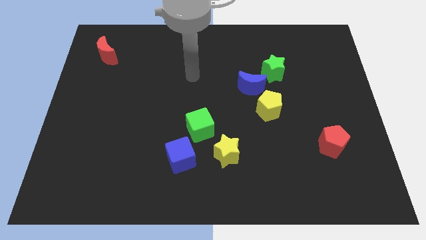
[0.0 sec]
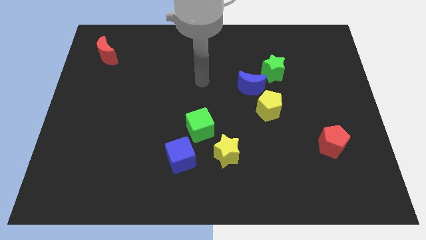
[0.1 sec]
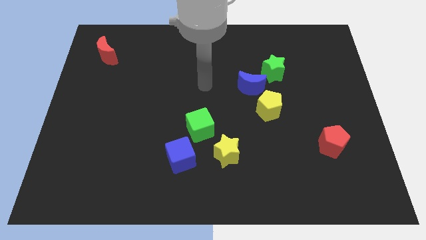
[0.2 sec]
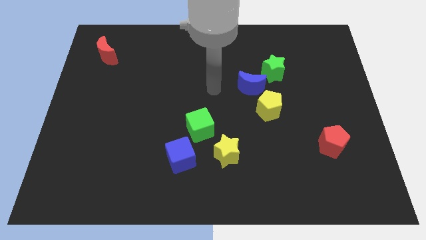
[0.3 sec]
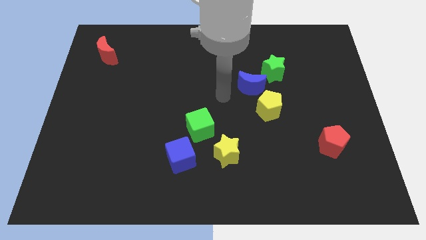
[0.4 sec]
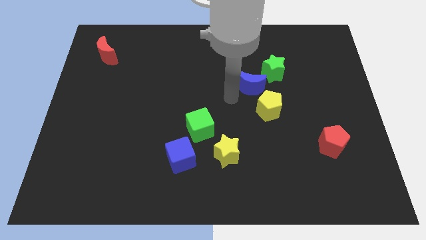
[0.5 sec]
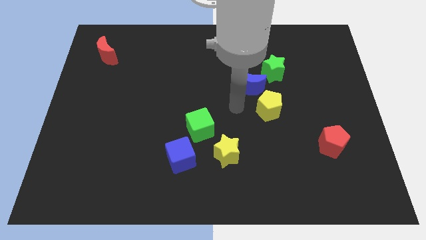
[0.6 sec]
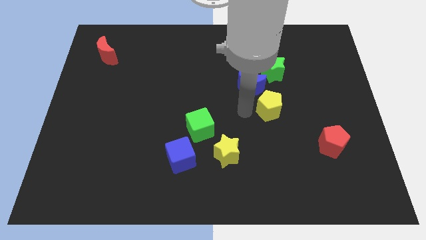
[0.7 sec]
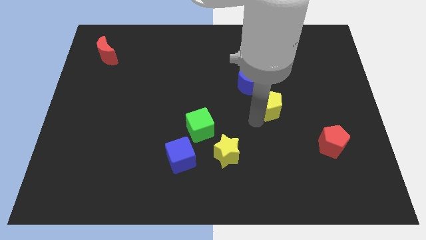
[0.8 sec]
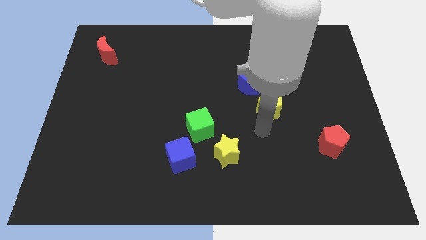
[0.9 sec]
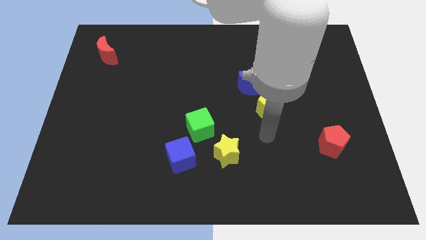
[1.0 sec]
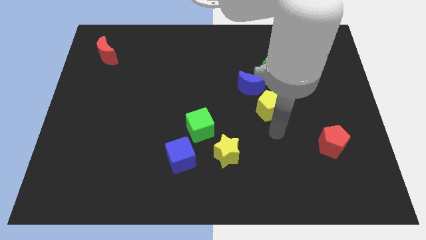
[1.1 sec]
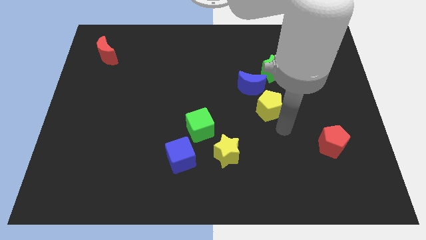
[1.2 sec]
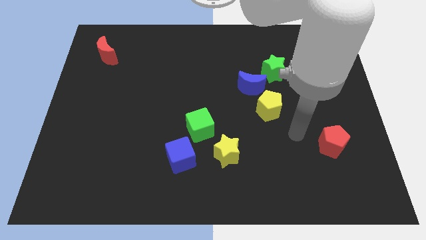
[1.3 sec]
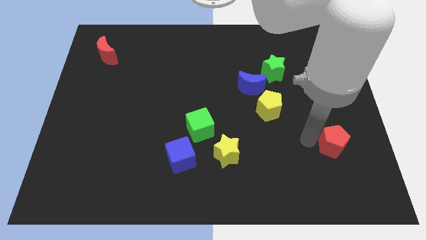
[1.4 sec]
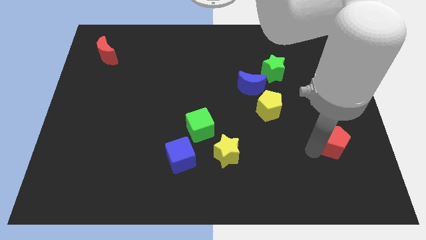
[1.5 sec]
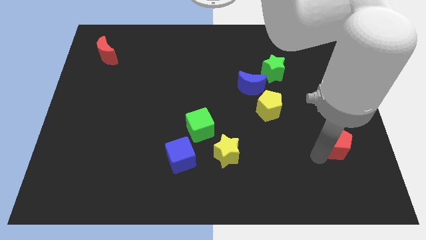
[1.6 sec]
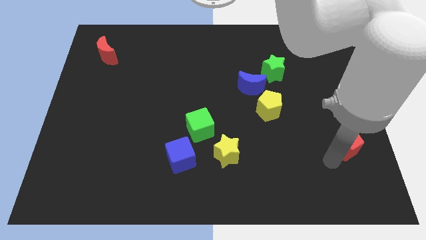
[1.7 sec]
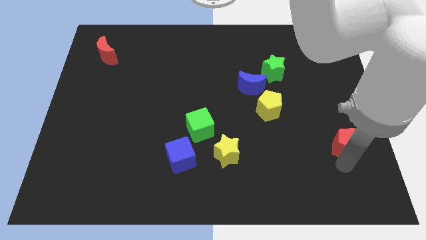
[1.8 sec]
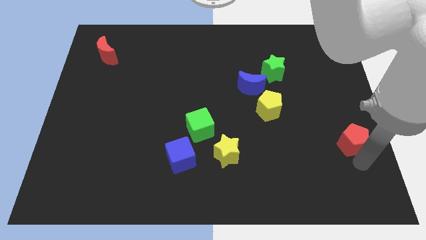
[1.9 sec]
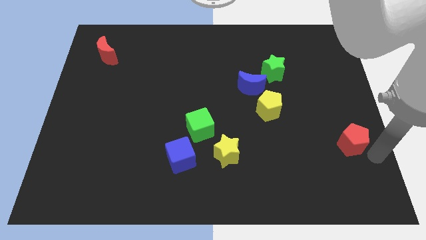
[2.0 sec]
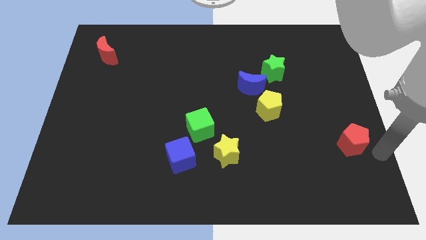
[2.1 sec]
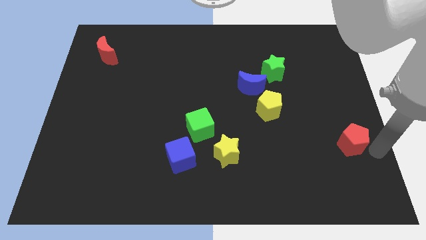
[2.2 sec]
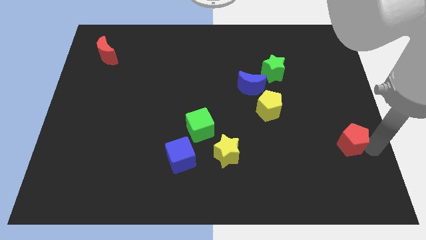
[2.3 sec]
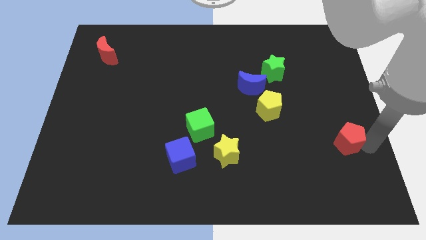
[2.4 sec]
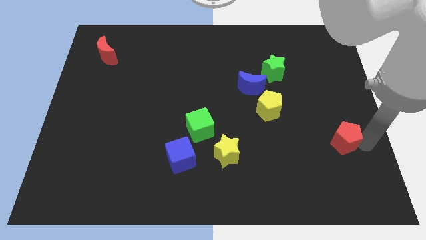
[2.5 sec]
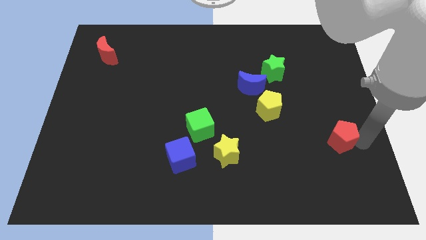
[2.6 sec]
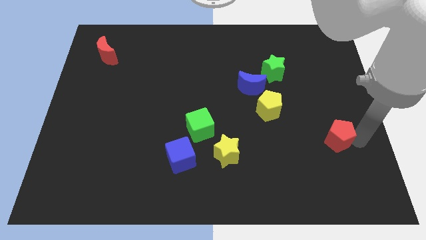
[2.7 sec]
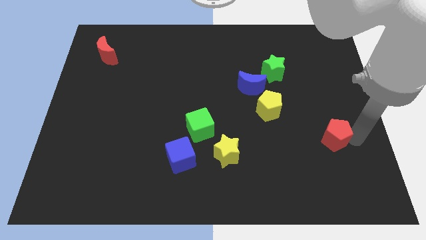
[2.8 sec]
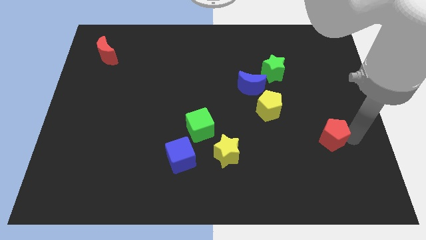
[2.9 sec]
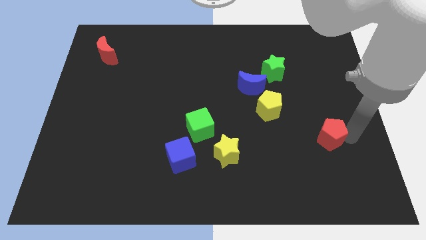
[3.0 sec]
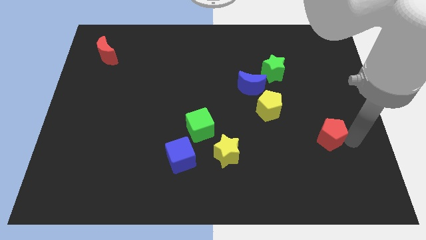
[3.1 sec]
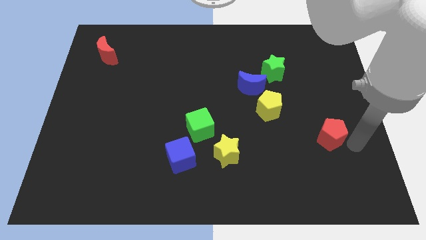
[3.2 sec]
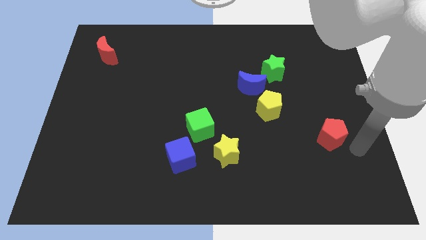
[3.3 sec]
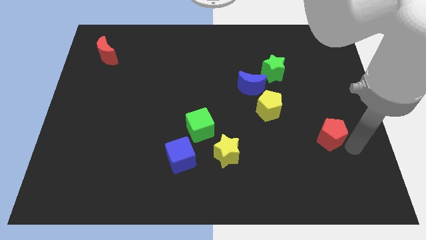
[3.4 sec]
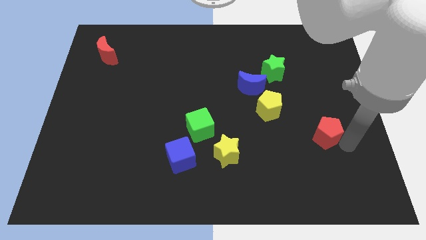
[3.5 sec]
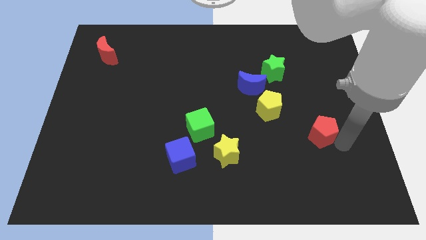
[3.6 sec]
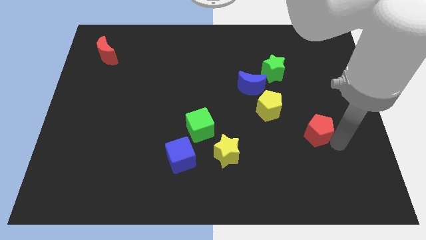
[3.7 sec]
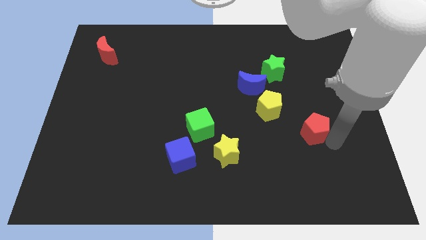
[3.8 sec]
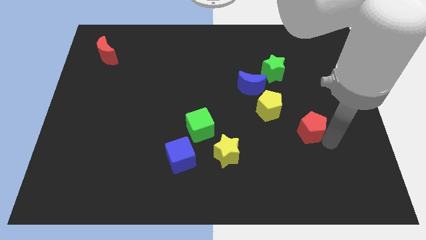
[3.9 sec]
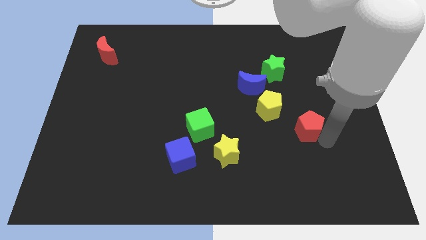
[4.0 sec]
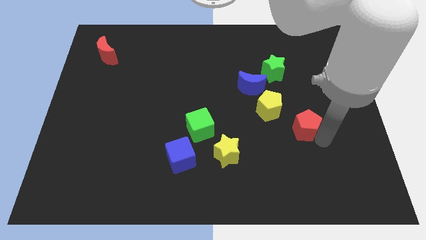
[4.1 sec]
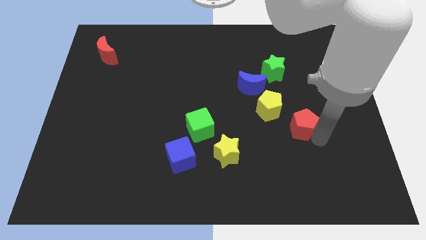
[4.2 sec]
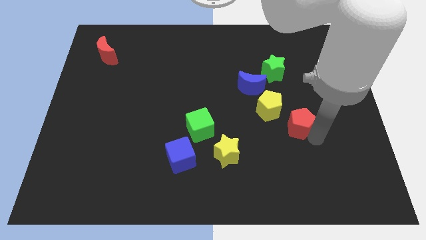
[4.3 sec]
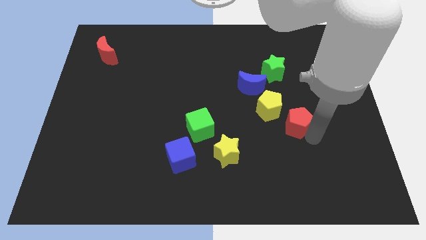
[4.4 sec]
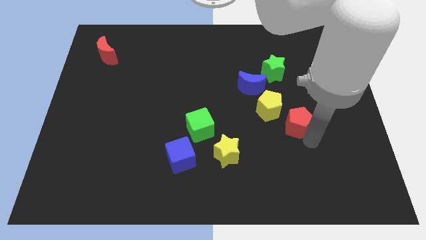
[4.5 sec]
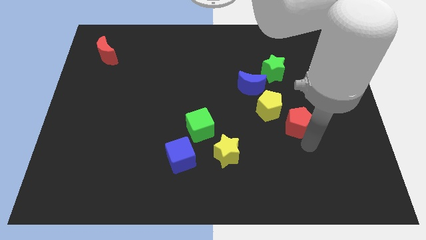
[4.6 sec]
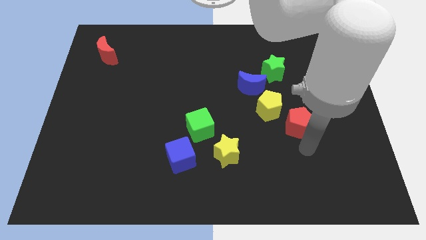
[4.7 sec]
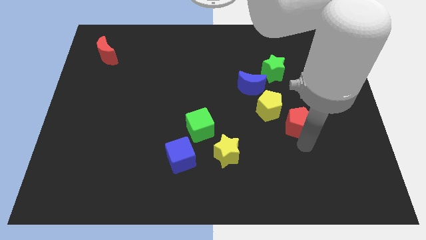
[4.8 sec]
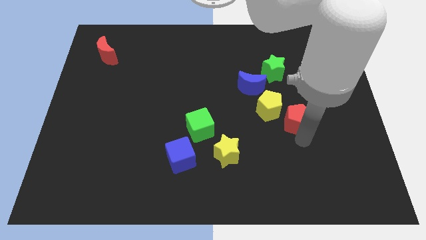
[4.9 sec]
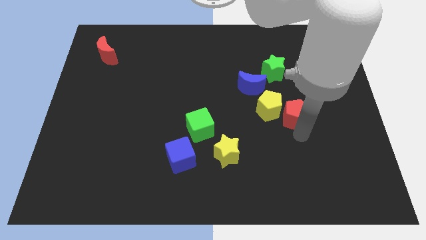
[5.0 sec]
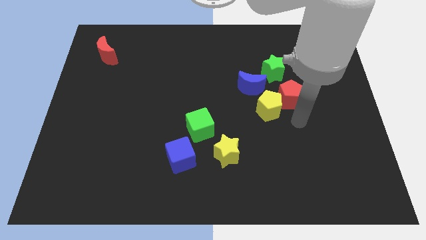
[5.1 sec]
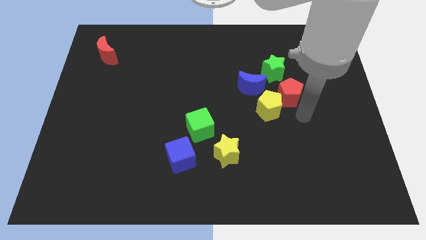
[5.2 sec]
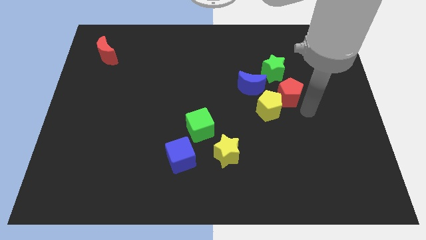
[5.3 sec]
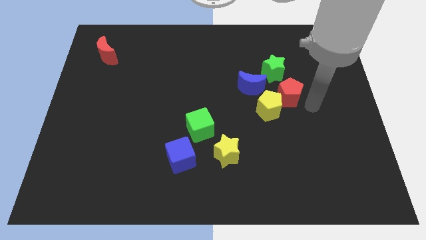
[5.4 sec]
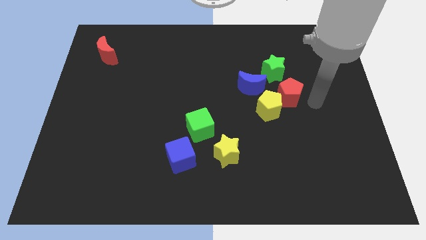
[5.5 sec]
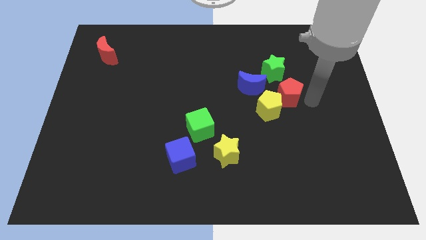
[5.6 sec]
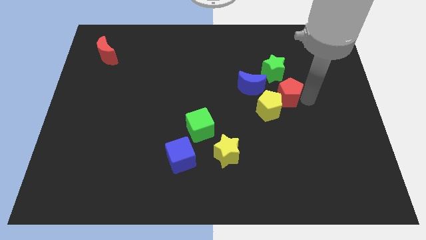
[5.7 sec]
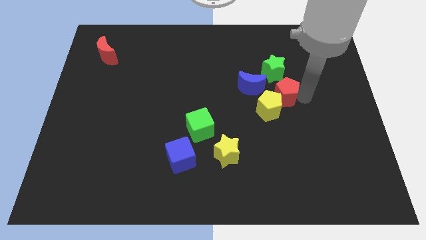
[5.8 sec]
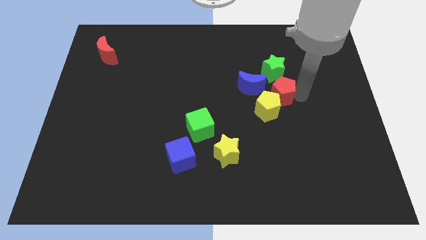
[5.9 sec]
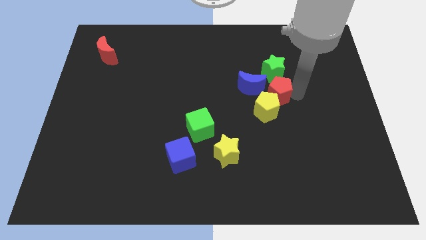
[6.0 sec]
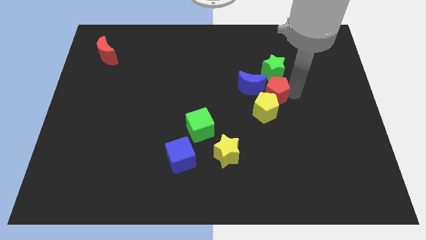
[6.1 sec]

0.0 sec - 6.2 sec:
push the red pentagon next to the blue moon

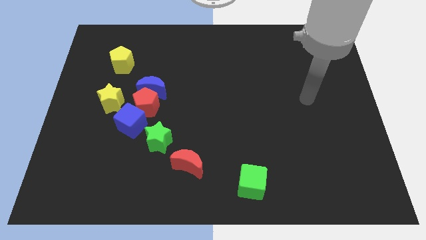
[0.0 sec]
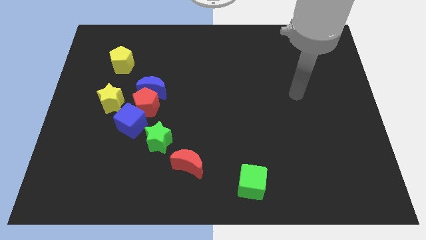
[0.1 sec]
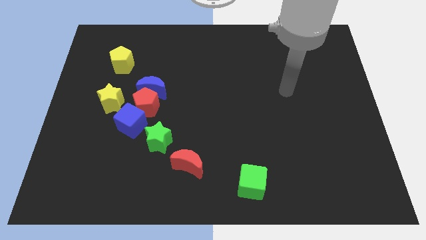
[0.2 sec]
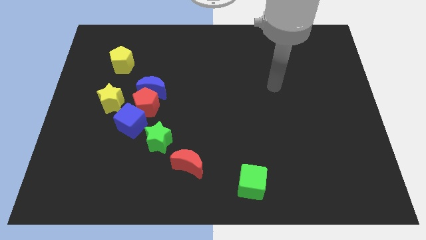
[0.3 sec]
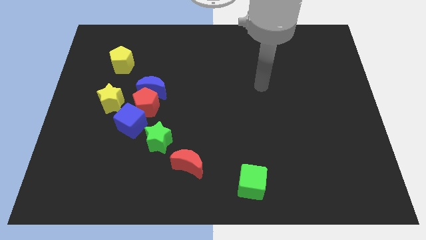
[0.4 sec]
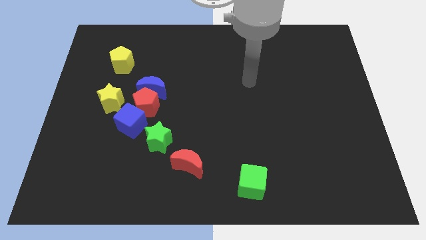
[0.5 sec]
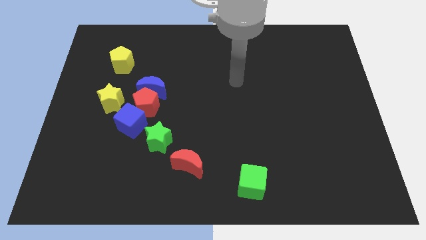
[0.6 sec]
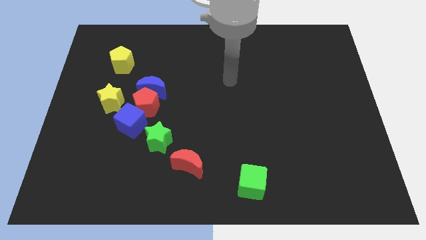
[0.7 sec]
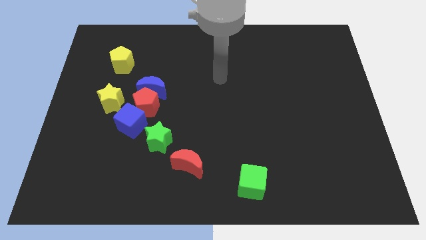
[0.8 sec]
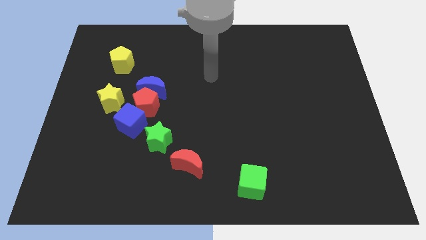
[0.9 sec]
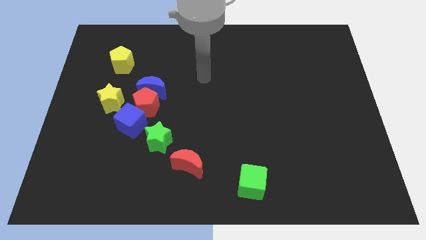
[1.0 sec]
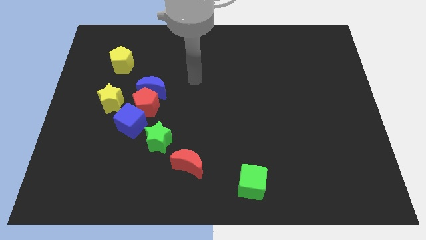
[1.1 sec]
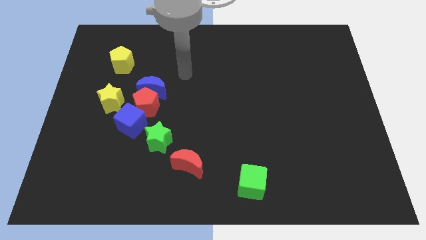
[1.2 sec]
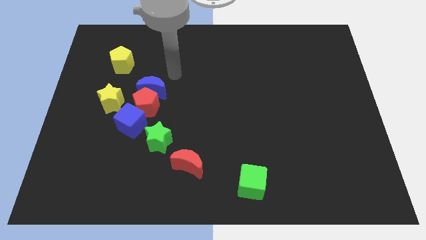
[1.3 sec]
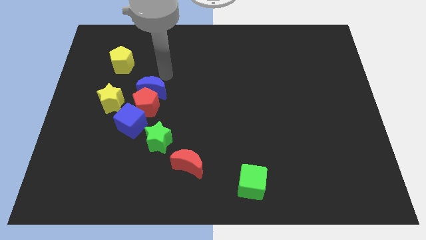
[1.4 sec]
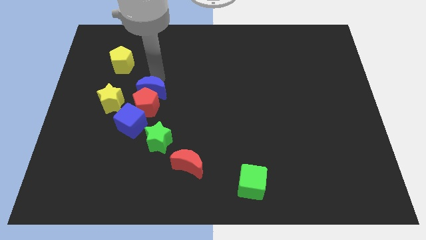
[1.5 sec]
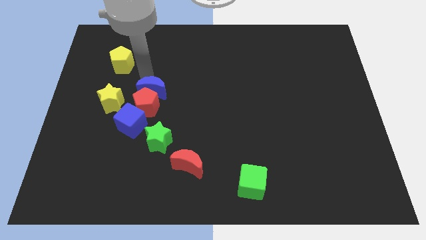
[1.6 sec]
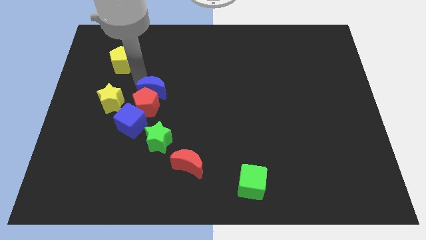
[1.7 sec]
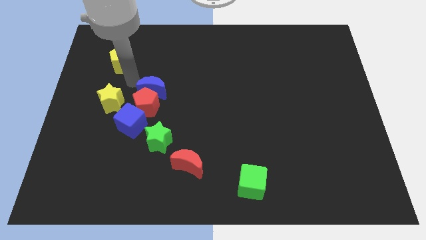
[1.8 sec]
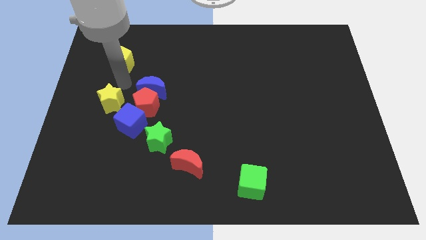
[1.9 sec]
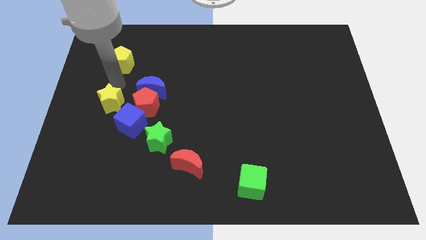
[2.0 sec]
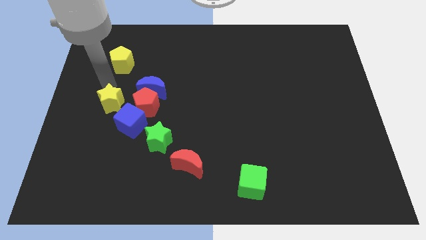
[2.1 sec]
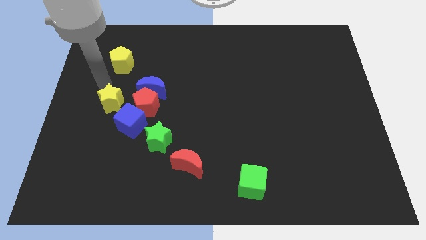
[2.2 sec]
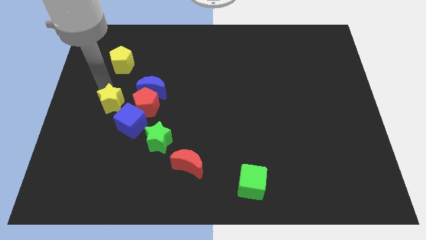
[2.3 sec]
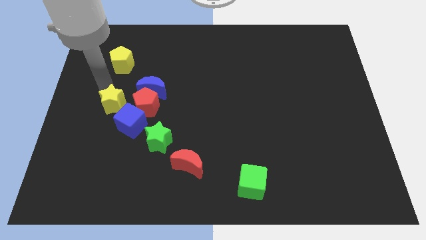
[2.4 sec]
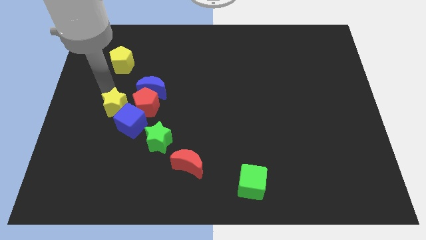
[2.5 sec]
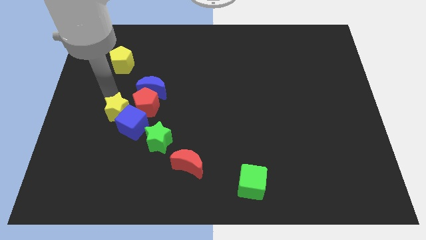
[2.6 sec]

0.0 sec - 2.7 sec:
put the yellow star close to the blue cube
